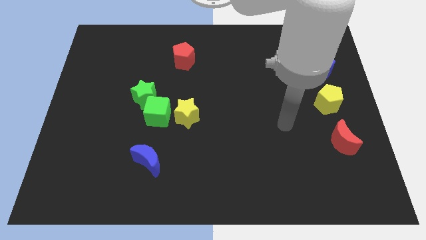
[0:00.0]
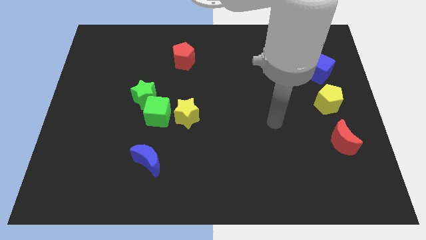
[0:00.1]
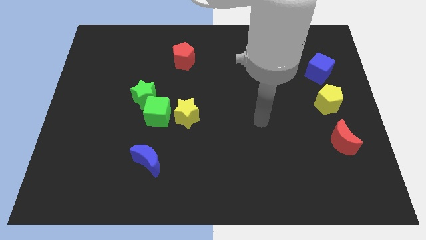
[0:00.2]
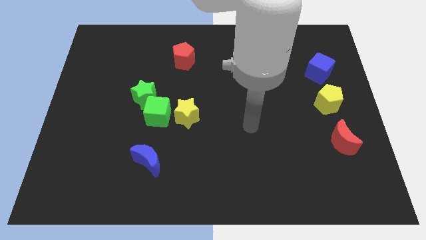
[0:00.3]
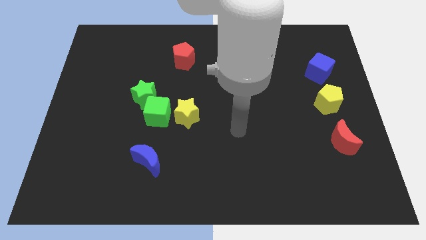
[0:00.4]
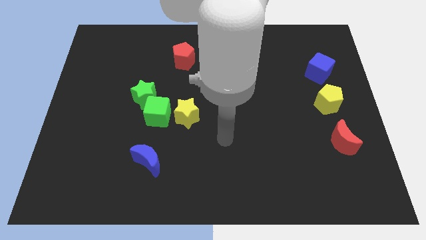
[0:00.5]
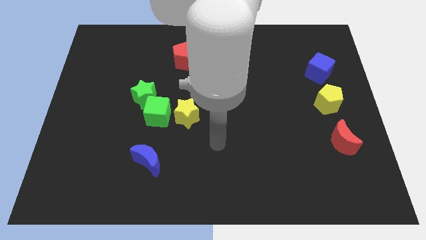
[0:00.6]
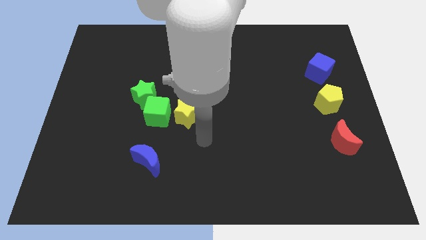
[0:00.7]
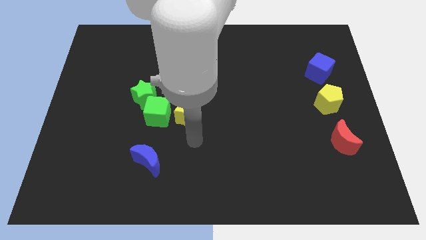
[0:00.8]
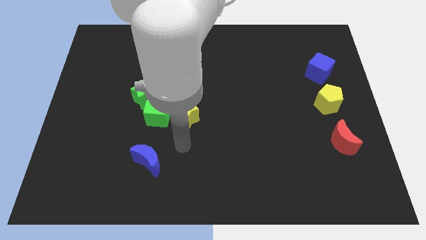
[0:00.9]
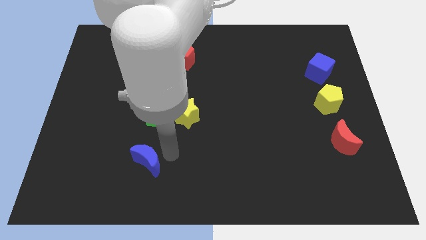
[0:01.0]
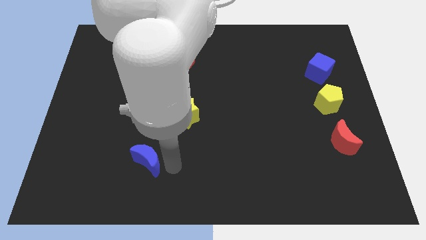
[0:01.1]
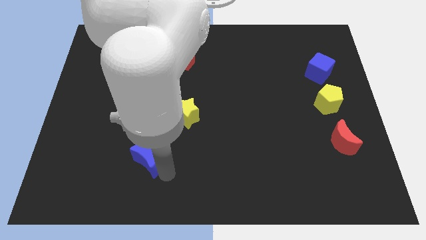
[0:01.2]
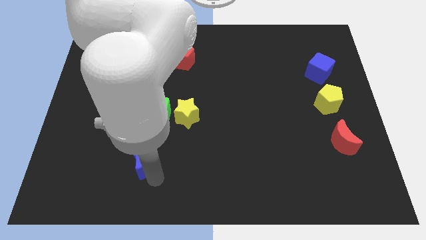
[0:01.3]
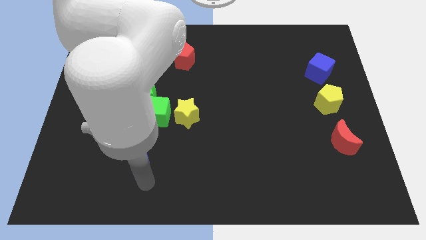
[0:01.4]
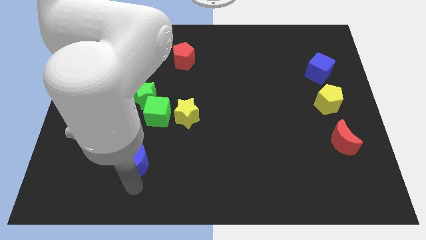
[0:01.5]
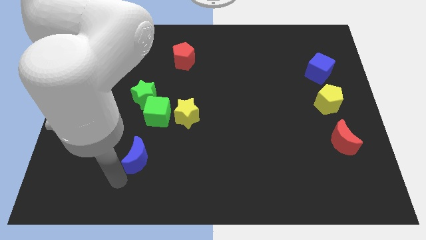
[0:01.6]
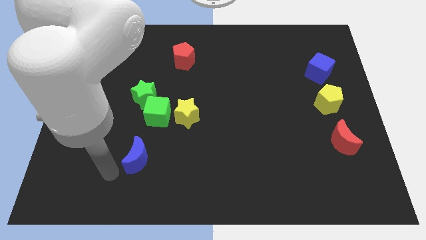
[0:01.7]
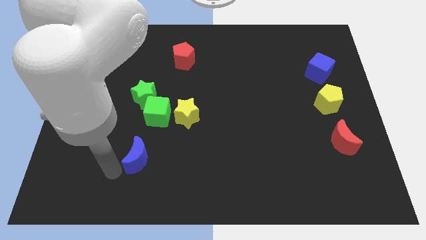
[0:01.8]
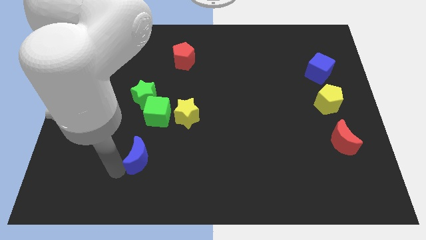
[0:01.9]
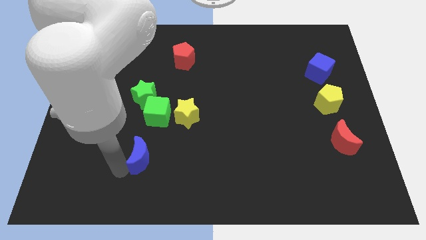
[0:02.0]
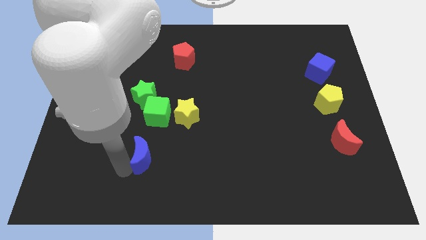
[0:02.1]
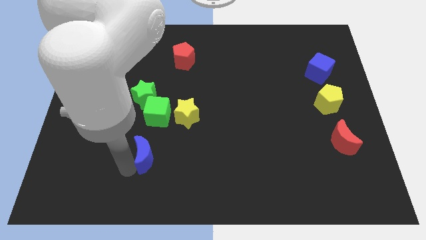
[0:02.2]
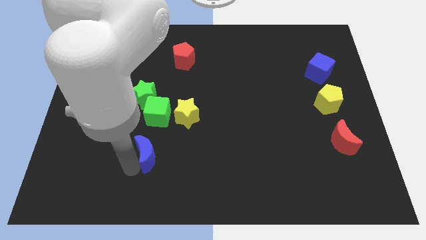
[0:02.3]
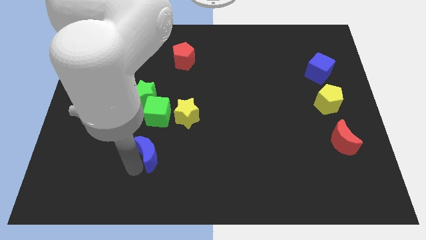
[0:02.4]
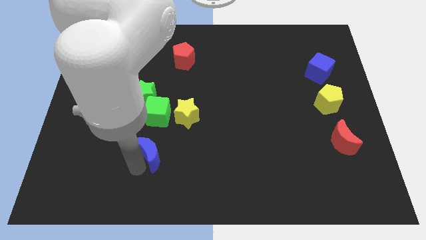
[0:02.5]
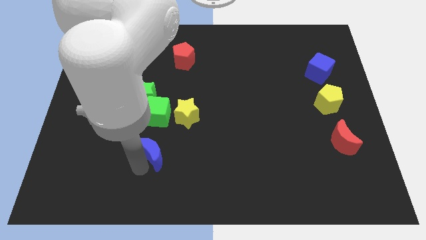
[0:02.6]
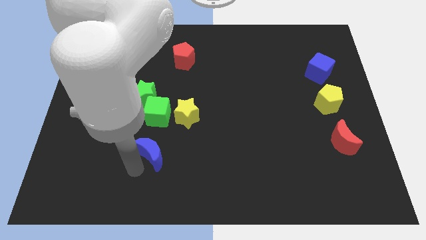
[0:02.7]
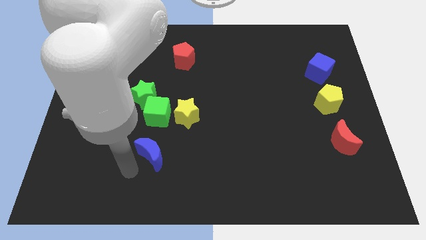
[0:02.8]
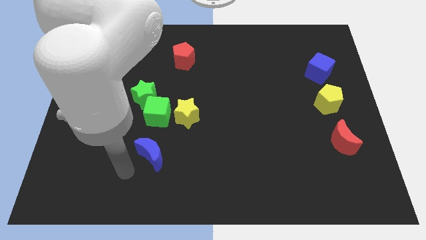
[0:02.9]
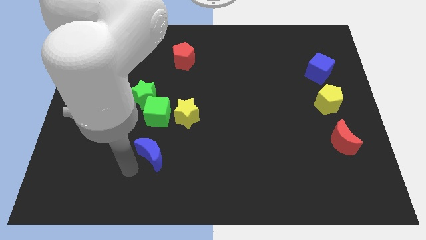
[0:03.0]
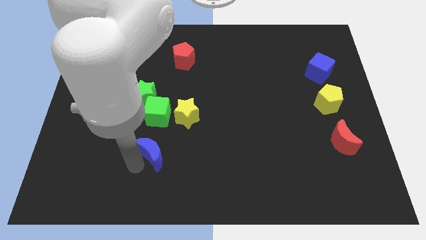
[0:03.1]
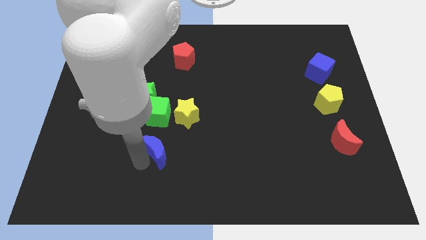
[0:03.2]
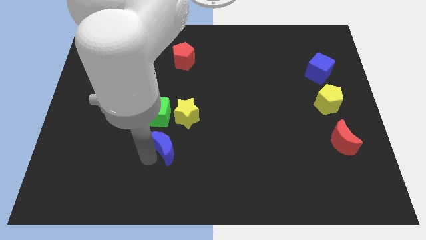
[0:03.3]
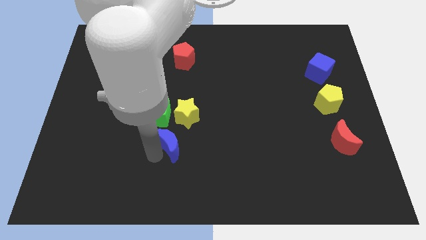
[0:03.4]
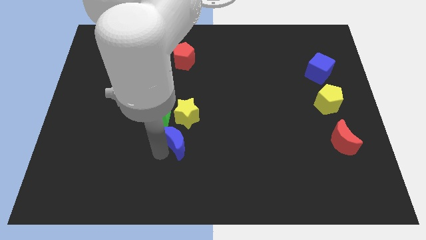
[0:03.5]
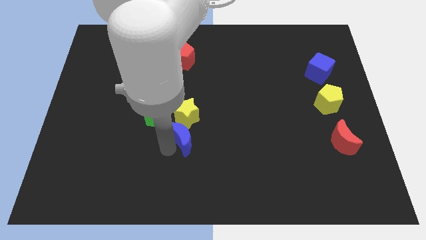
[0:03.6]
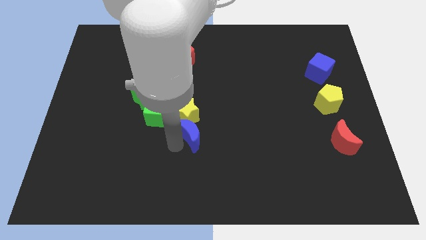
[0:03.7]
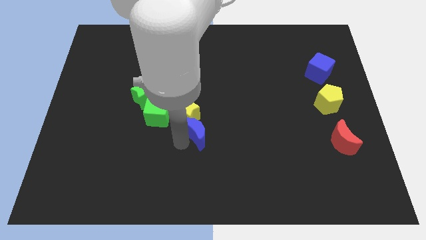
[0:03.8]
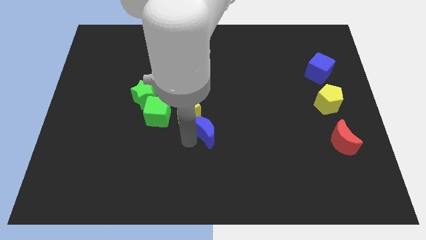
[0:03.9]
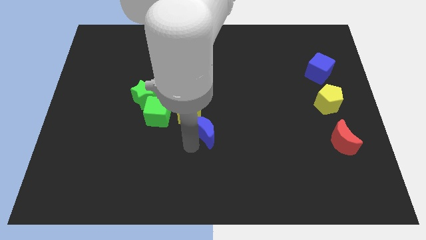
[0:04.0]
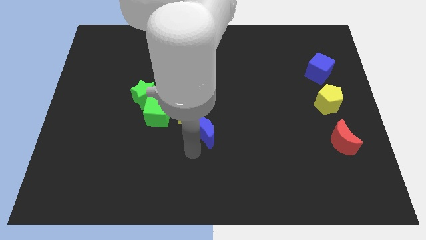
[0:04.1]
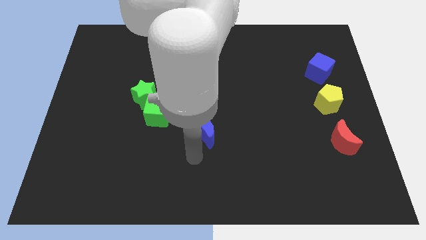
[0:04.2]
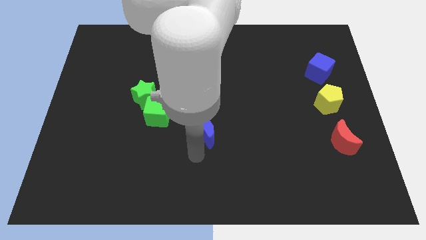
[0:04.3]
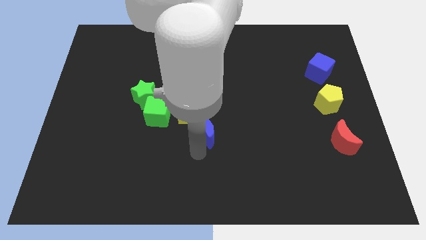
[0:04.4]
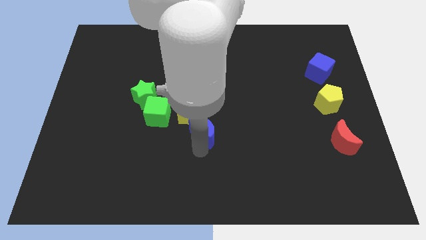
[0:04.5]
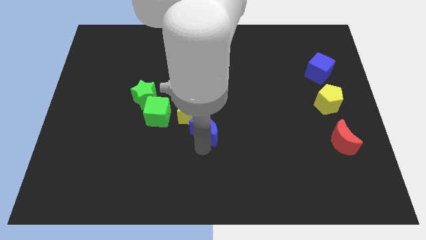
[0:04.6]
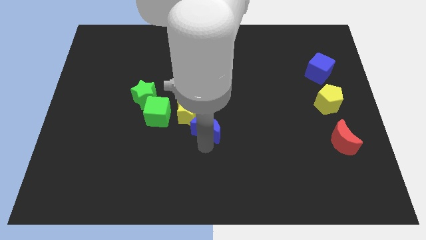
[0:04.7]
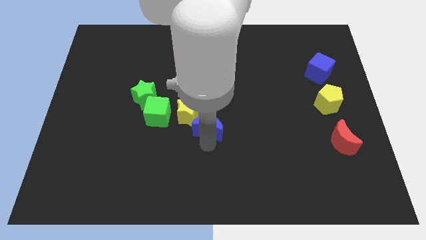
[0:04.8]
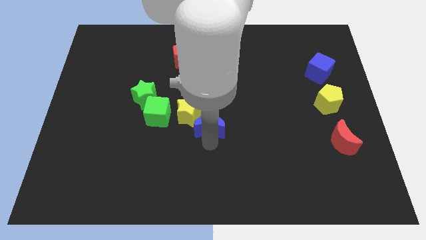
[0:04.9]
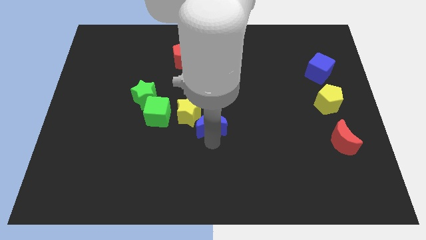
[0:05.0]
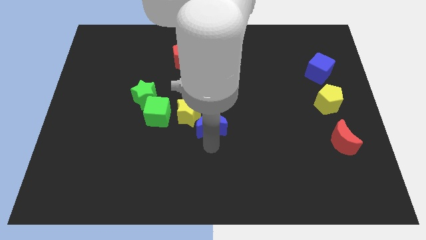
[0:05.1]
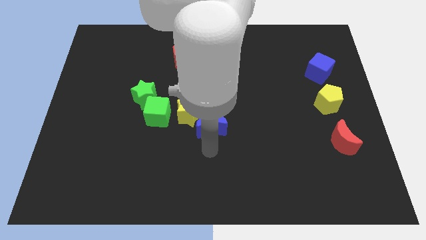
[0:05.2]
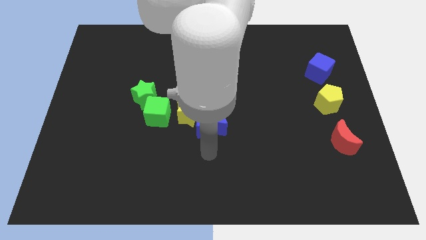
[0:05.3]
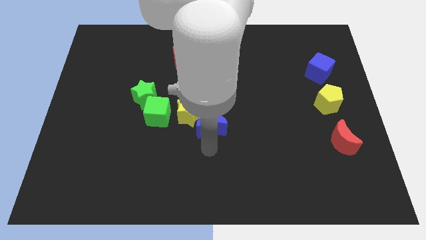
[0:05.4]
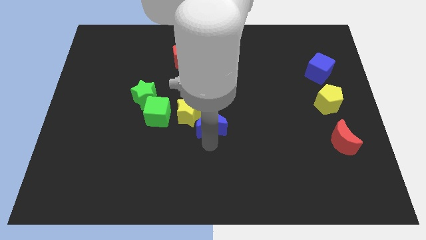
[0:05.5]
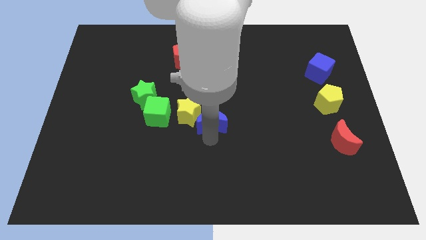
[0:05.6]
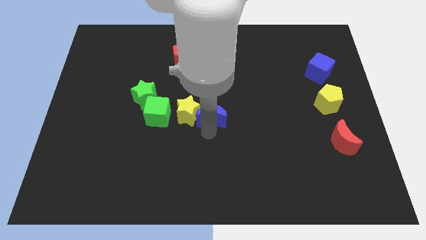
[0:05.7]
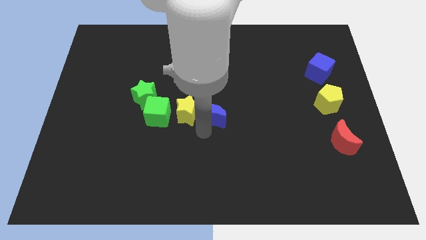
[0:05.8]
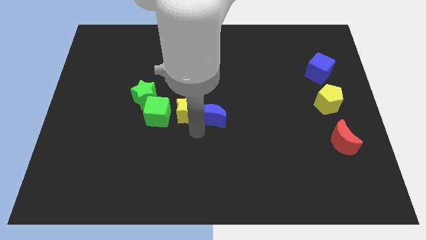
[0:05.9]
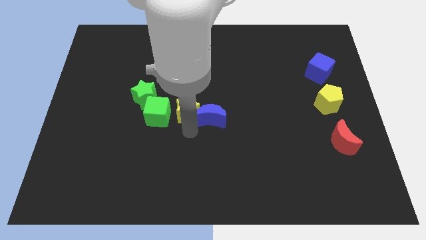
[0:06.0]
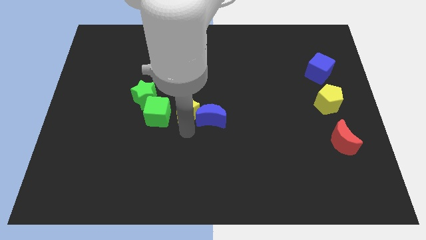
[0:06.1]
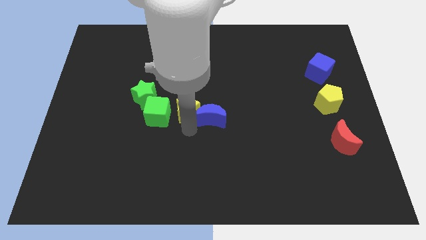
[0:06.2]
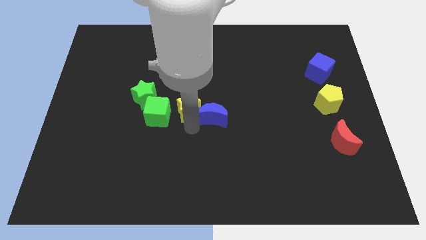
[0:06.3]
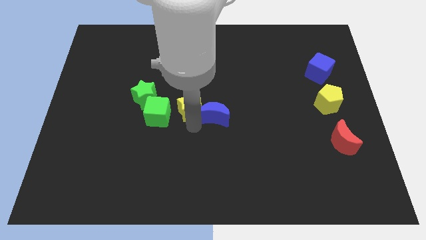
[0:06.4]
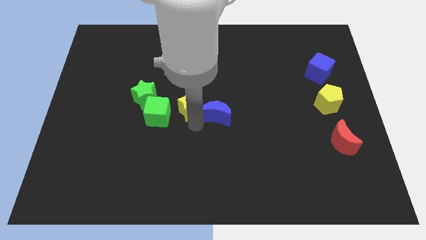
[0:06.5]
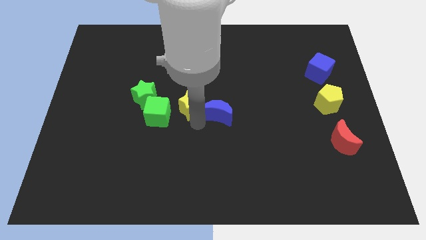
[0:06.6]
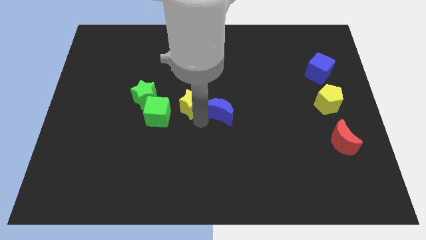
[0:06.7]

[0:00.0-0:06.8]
slide the blue moon up and right diagonally

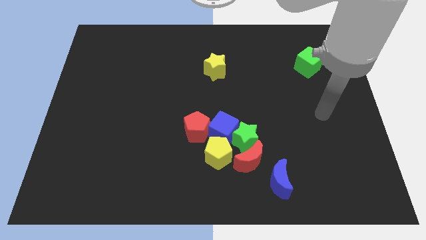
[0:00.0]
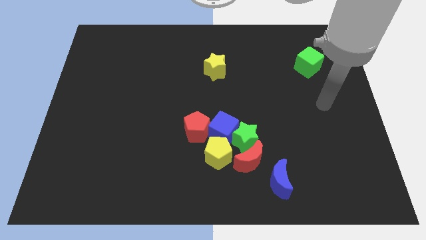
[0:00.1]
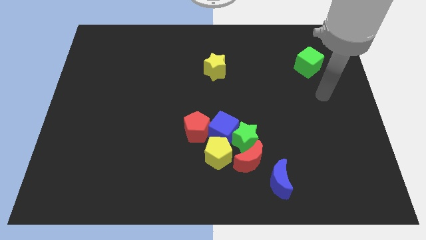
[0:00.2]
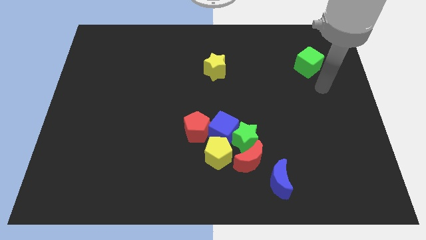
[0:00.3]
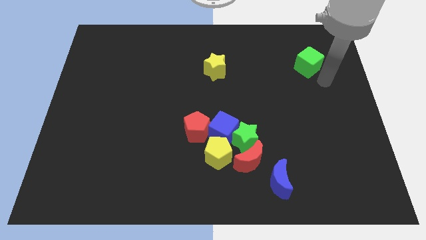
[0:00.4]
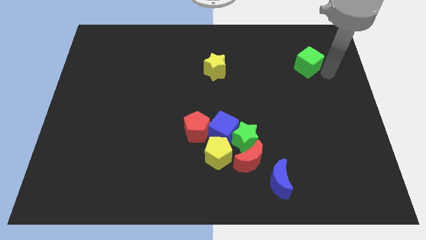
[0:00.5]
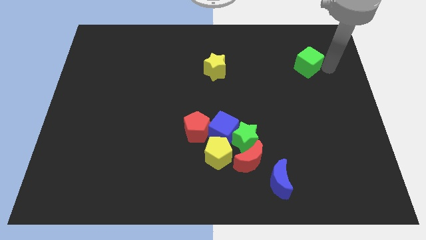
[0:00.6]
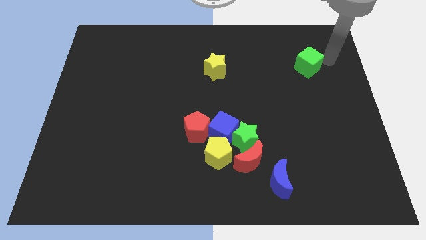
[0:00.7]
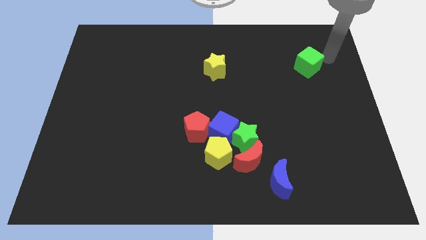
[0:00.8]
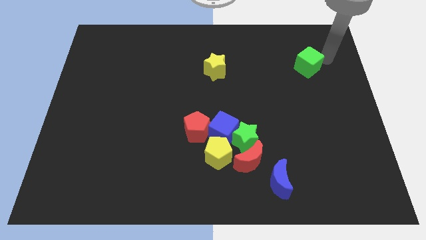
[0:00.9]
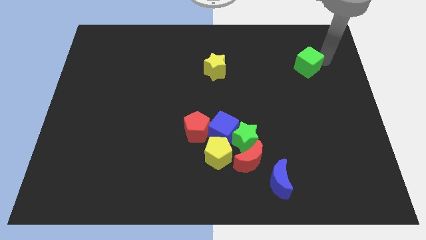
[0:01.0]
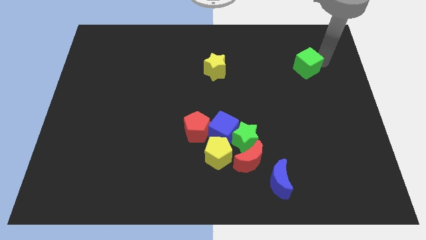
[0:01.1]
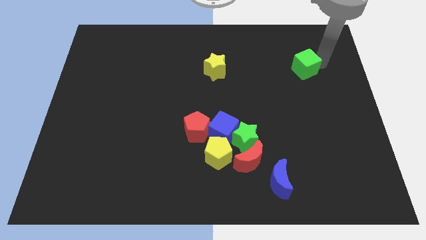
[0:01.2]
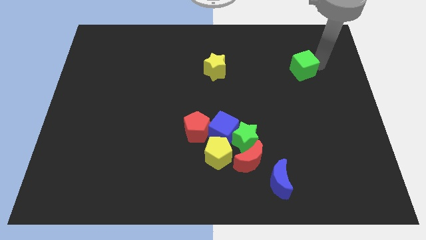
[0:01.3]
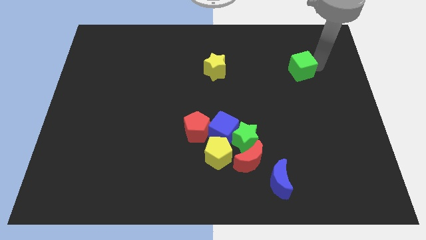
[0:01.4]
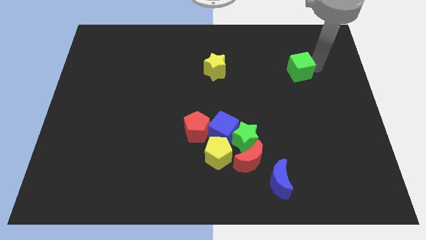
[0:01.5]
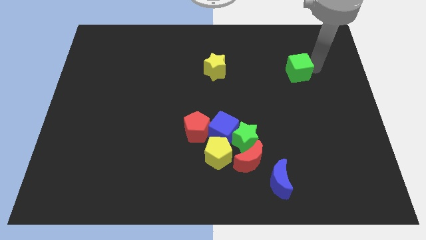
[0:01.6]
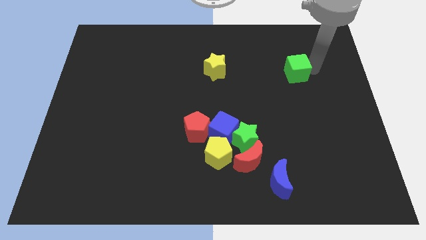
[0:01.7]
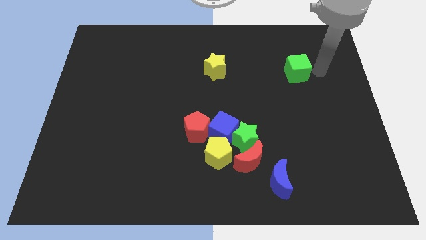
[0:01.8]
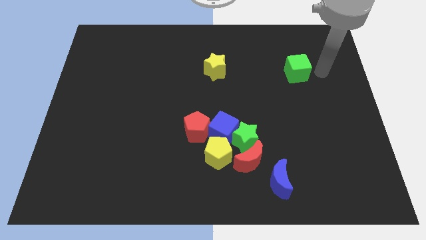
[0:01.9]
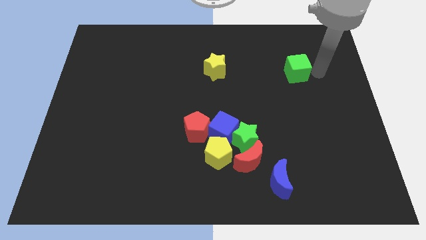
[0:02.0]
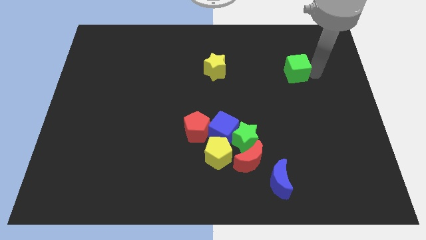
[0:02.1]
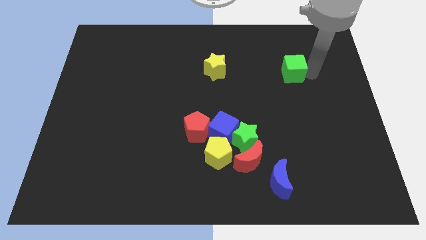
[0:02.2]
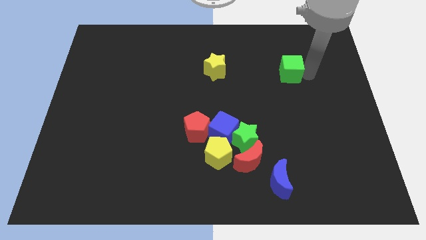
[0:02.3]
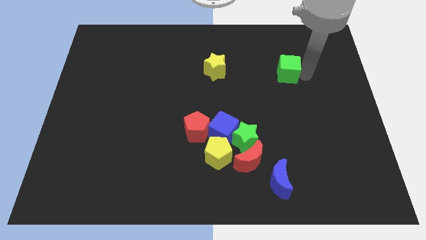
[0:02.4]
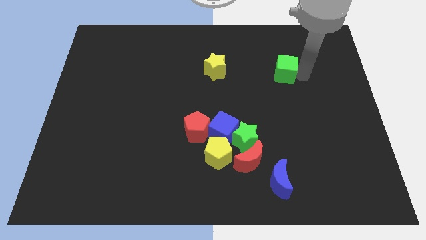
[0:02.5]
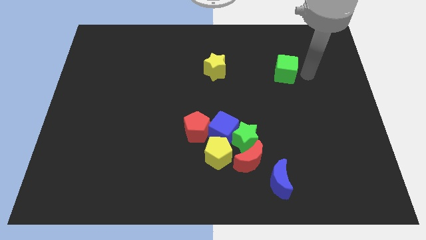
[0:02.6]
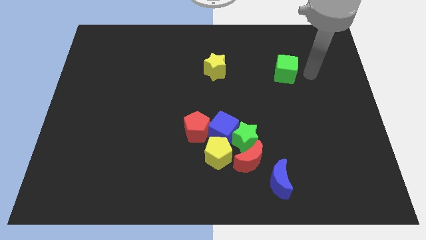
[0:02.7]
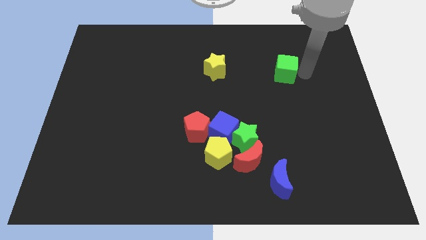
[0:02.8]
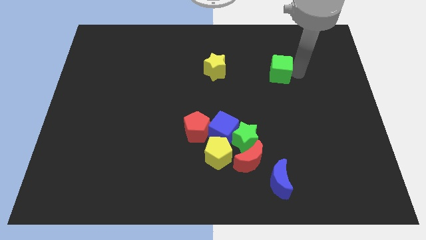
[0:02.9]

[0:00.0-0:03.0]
slightly move the green cube left
